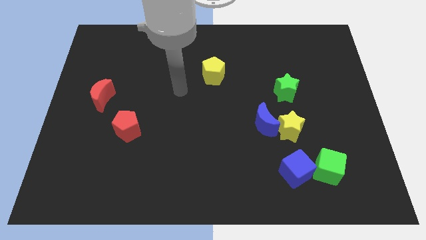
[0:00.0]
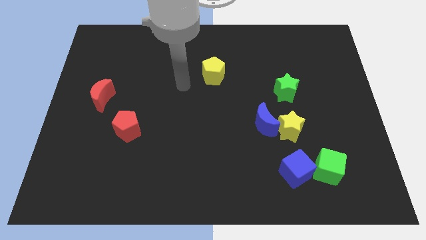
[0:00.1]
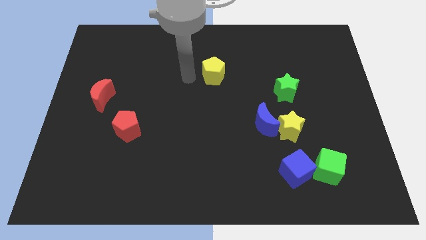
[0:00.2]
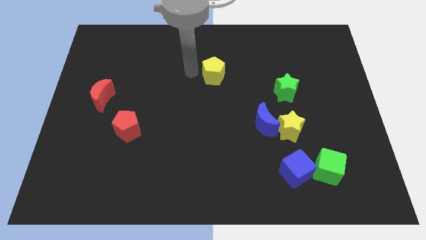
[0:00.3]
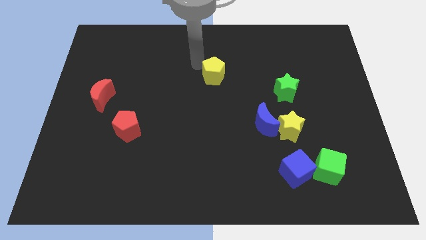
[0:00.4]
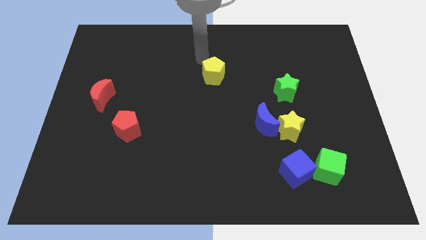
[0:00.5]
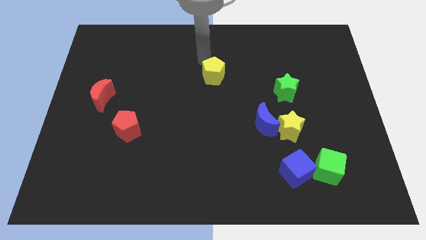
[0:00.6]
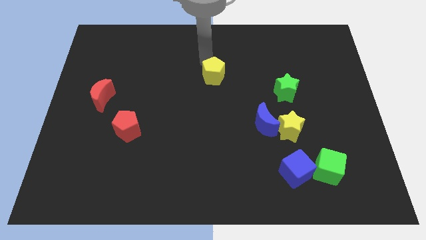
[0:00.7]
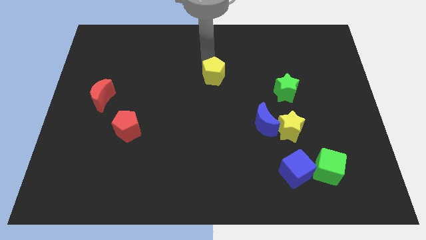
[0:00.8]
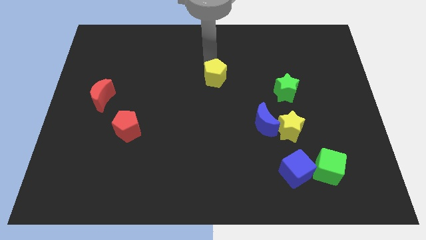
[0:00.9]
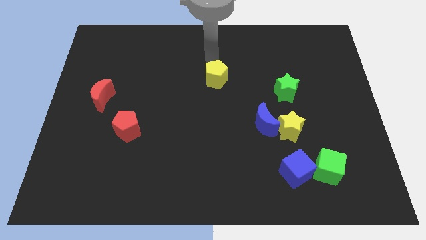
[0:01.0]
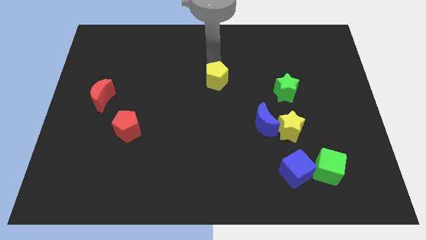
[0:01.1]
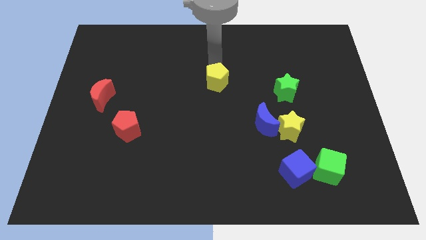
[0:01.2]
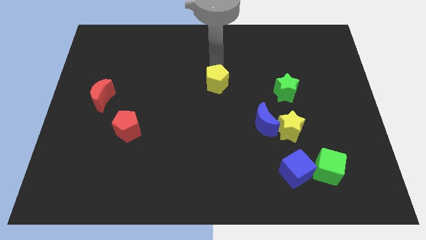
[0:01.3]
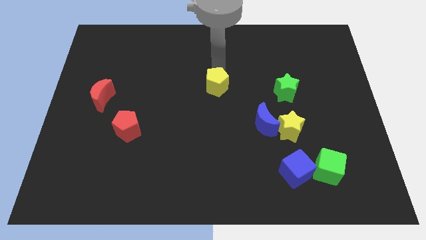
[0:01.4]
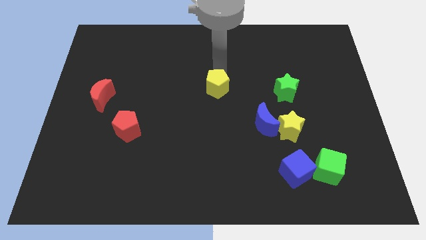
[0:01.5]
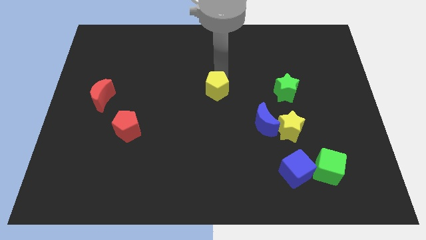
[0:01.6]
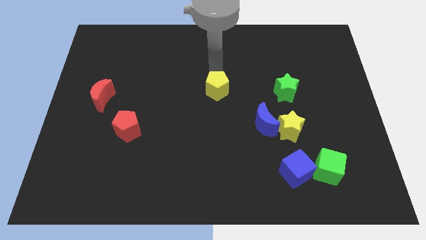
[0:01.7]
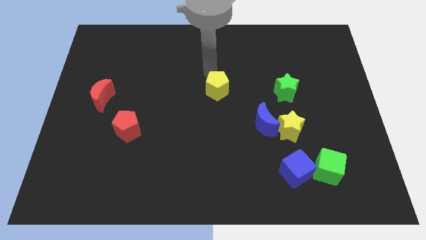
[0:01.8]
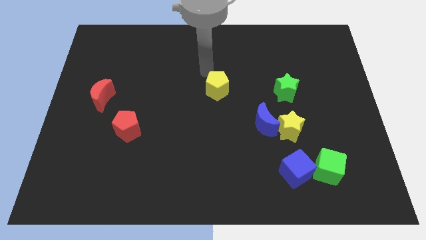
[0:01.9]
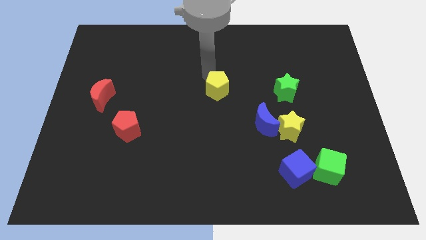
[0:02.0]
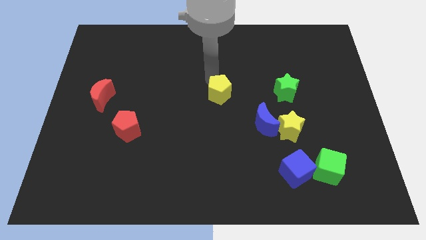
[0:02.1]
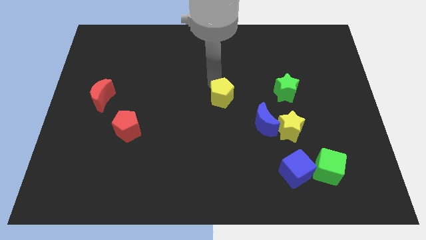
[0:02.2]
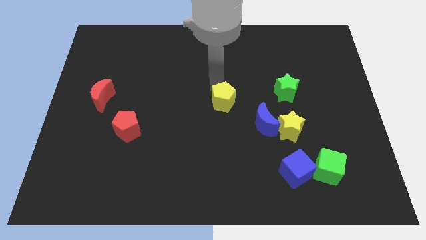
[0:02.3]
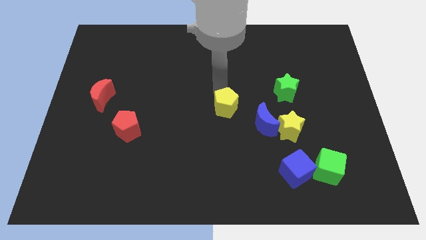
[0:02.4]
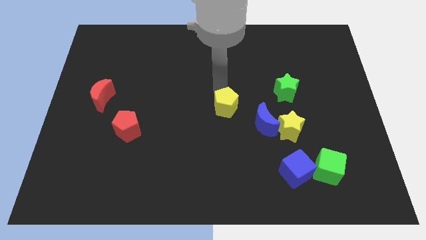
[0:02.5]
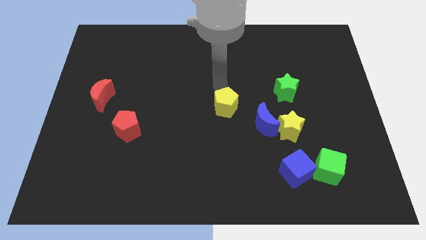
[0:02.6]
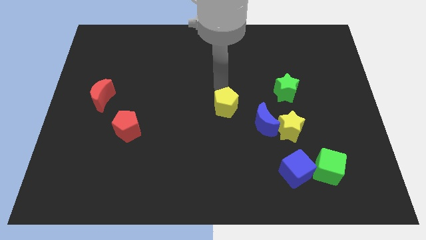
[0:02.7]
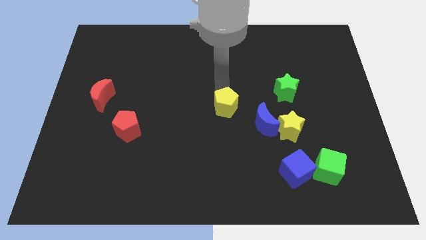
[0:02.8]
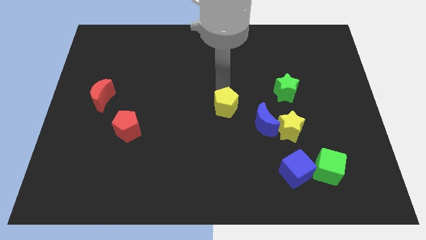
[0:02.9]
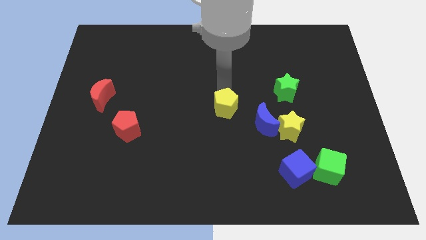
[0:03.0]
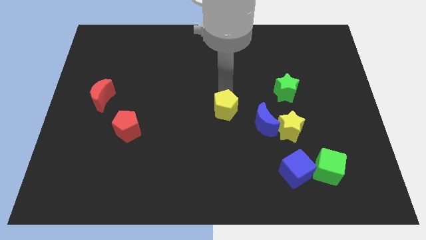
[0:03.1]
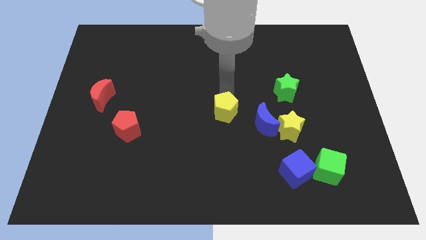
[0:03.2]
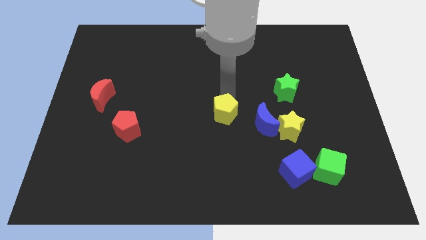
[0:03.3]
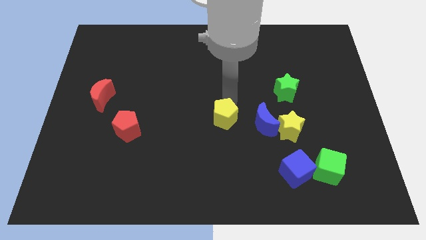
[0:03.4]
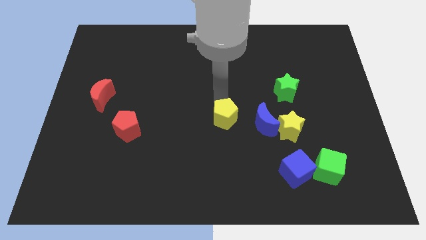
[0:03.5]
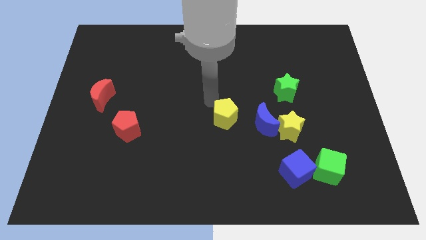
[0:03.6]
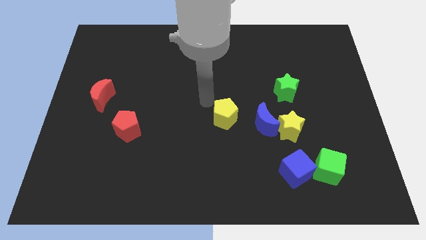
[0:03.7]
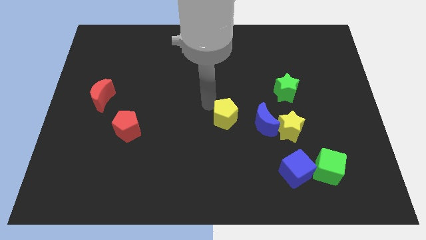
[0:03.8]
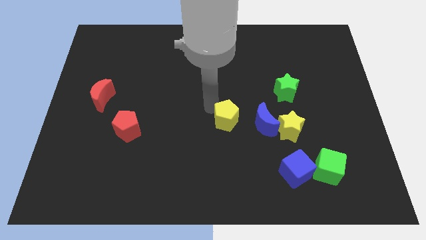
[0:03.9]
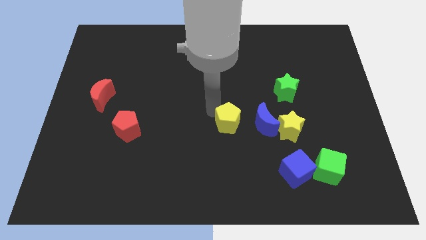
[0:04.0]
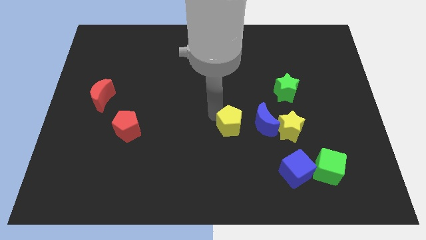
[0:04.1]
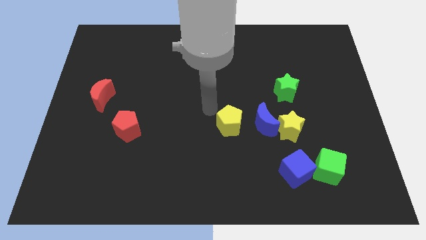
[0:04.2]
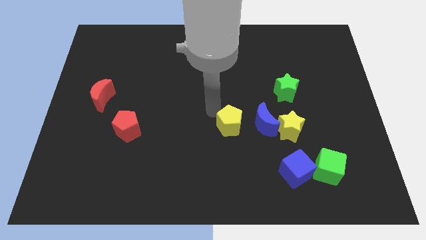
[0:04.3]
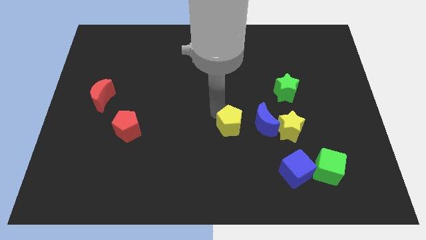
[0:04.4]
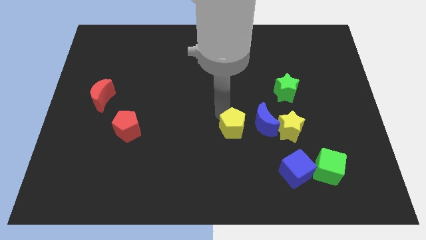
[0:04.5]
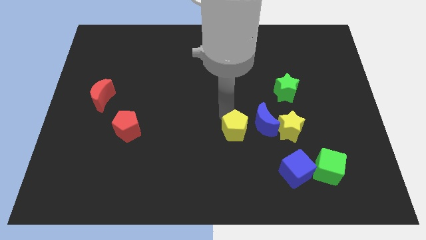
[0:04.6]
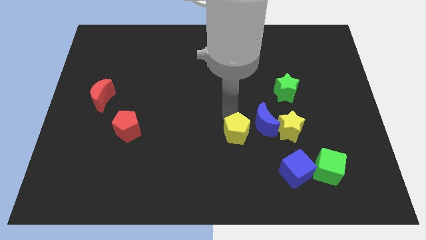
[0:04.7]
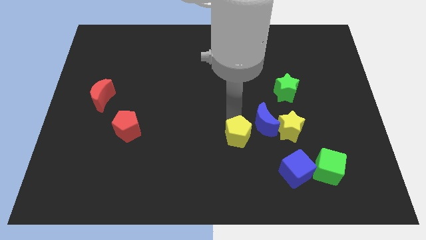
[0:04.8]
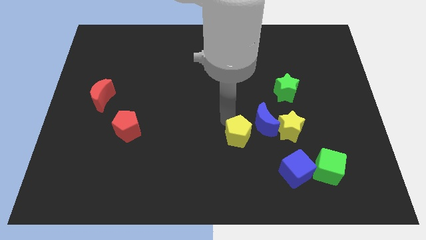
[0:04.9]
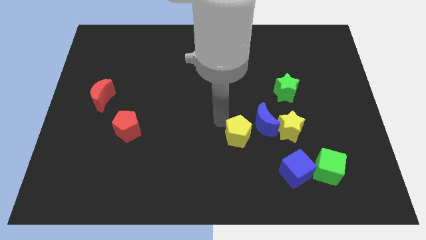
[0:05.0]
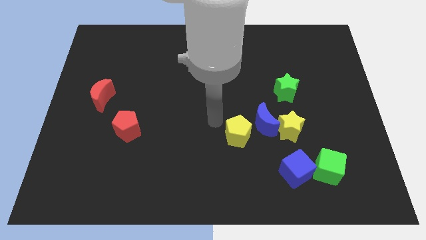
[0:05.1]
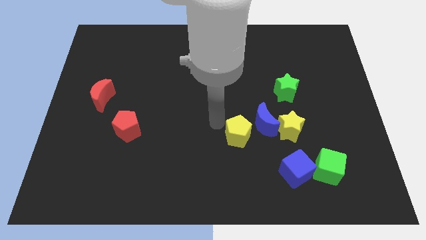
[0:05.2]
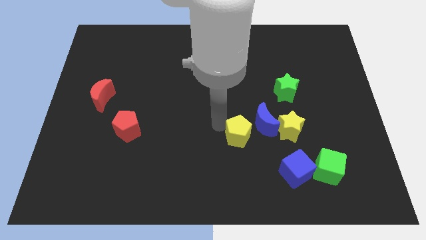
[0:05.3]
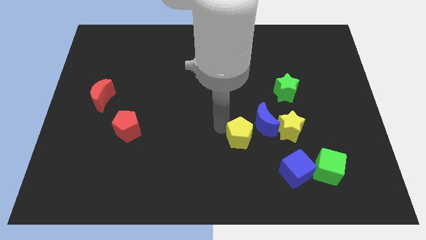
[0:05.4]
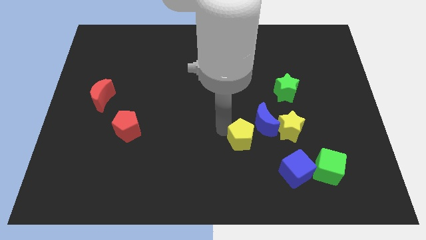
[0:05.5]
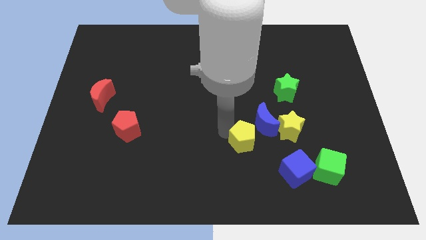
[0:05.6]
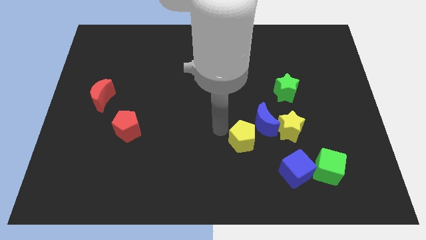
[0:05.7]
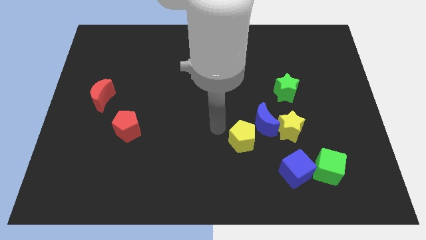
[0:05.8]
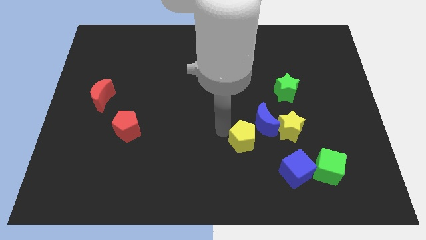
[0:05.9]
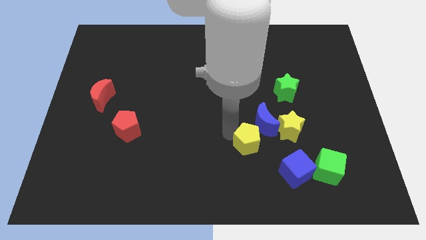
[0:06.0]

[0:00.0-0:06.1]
put the yellow pentagon to the bottom left side of the yellow star

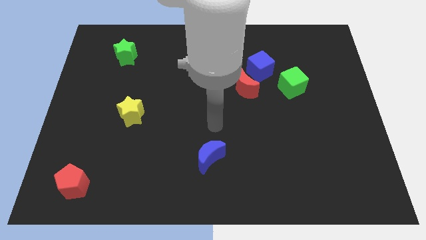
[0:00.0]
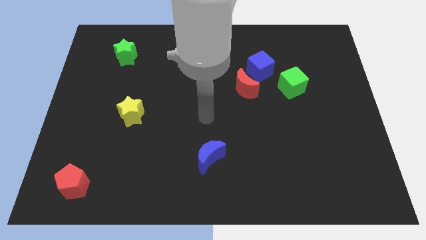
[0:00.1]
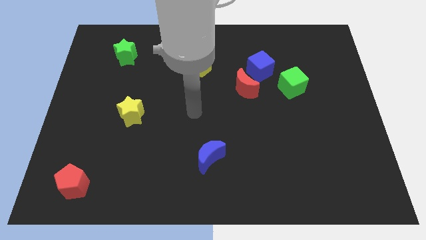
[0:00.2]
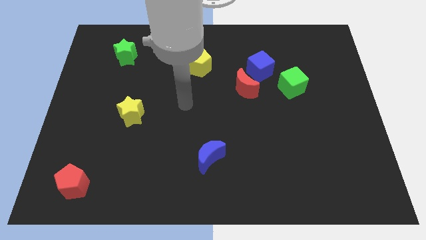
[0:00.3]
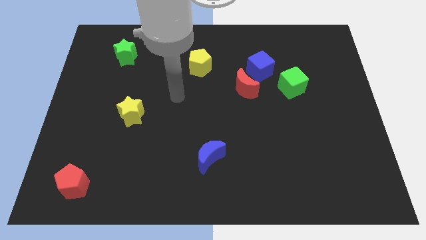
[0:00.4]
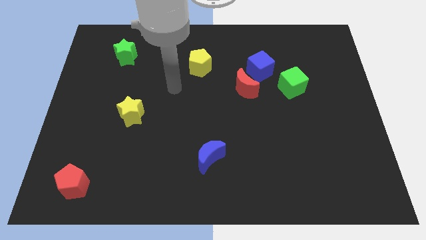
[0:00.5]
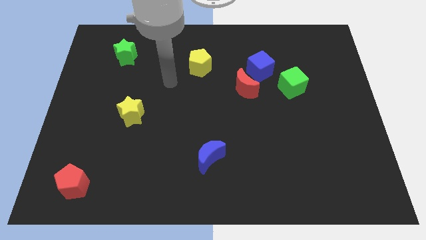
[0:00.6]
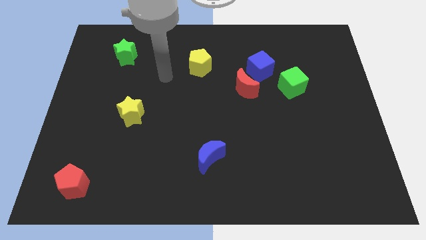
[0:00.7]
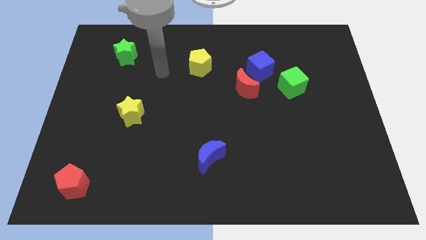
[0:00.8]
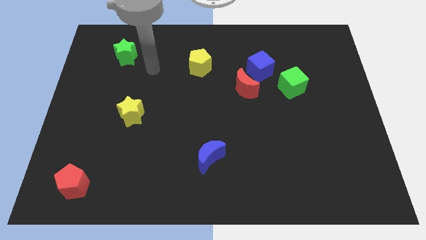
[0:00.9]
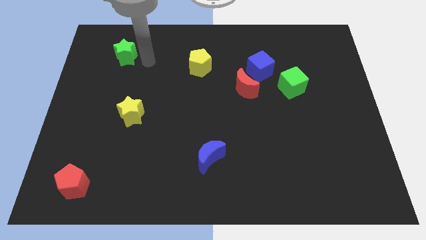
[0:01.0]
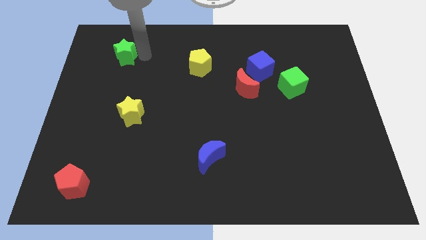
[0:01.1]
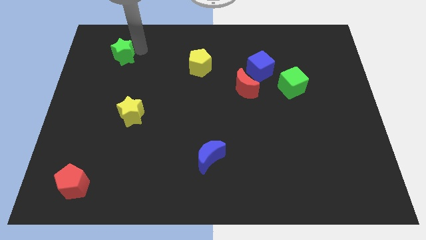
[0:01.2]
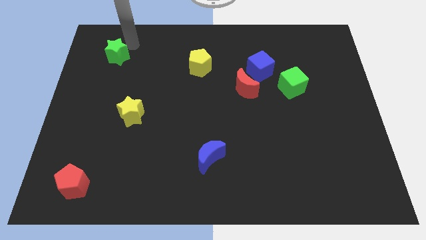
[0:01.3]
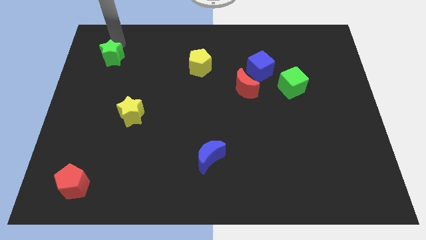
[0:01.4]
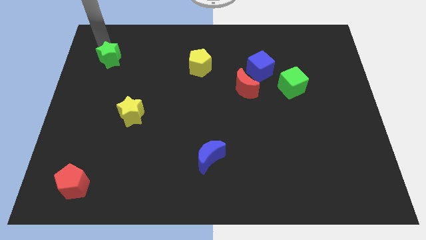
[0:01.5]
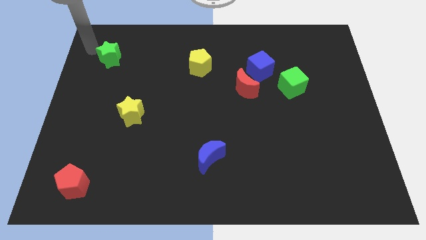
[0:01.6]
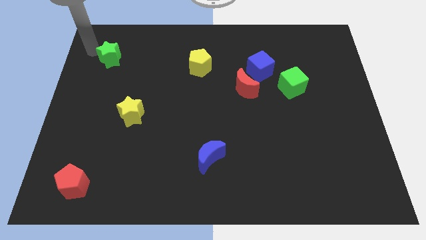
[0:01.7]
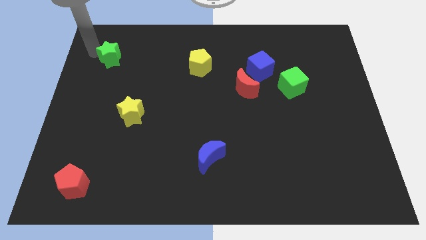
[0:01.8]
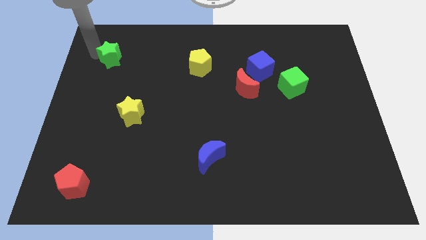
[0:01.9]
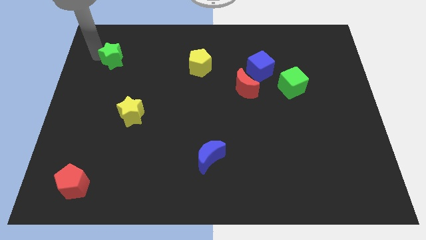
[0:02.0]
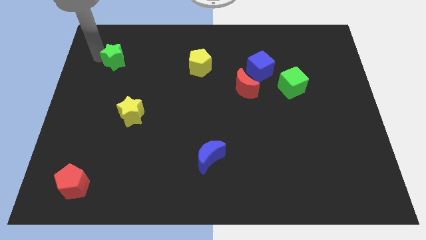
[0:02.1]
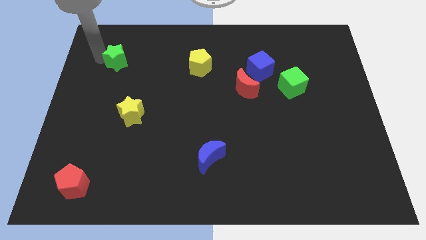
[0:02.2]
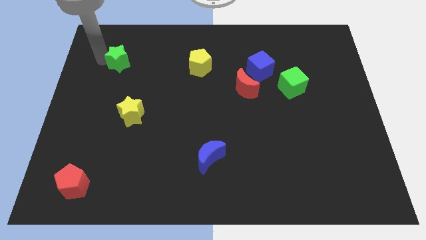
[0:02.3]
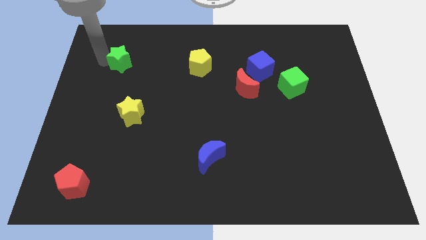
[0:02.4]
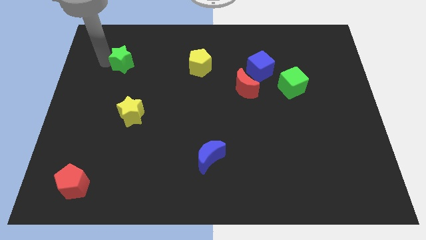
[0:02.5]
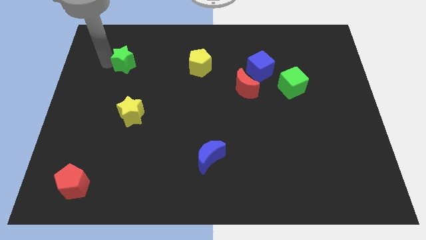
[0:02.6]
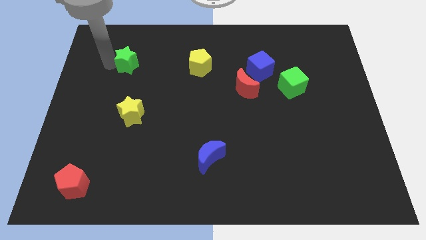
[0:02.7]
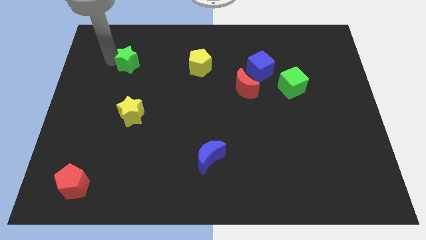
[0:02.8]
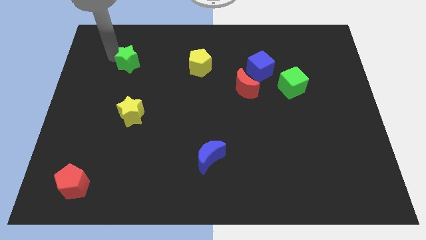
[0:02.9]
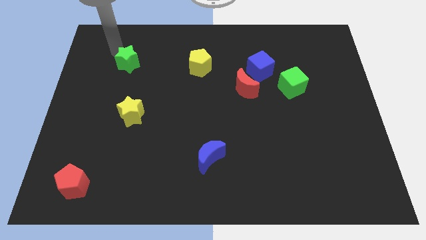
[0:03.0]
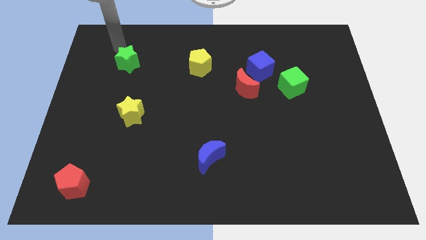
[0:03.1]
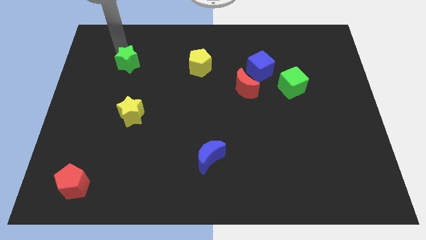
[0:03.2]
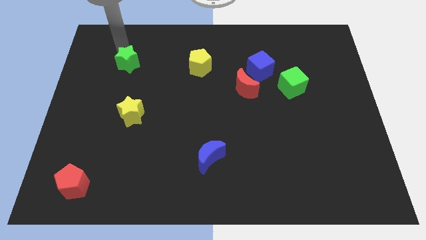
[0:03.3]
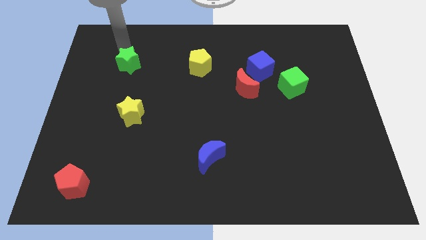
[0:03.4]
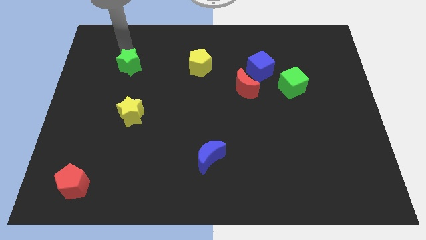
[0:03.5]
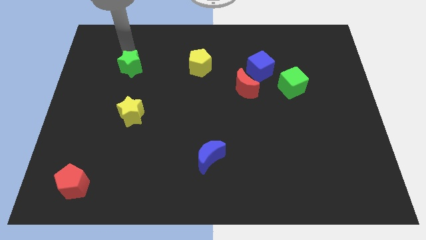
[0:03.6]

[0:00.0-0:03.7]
move the green star to the top of the yellow star
